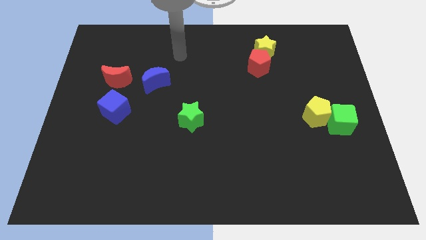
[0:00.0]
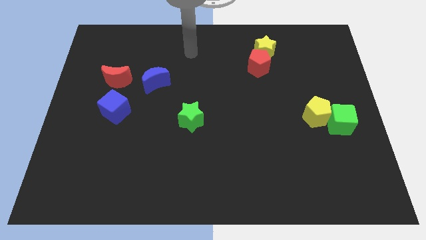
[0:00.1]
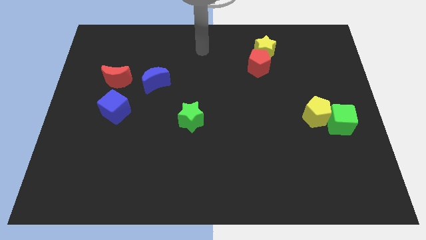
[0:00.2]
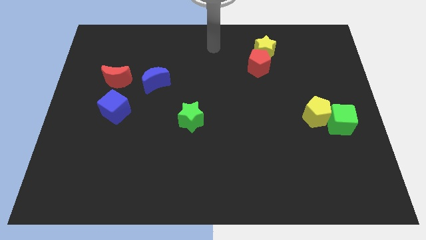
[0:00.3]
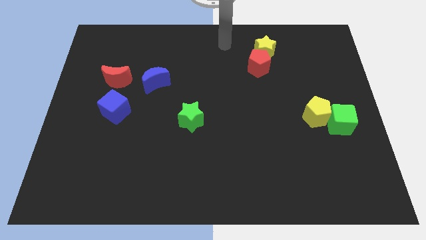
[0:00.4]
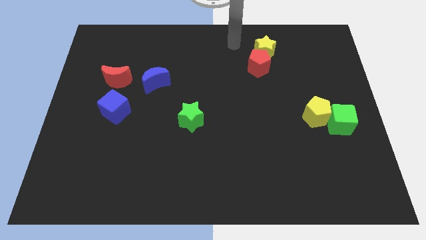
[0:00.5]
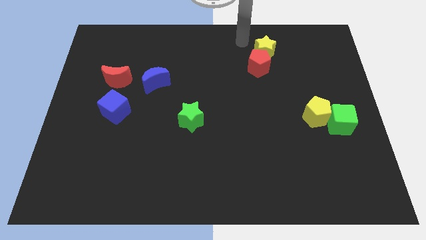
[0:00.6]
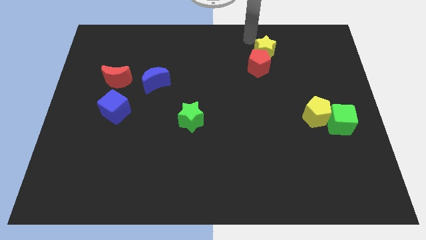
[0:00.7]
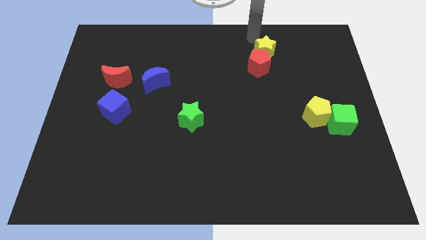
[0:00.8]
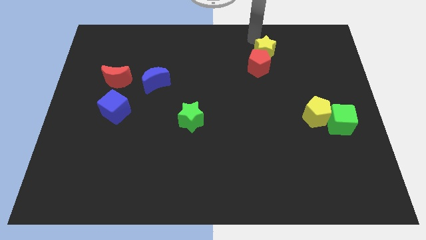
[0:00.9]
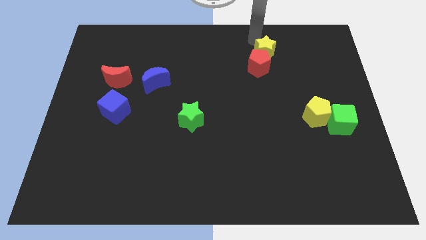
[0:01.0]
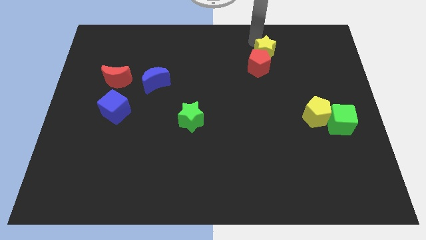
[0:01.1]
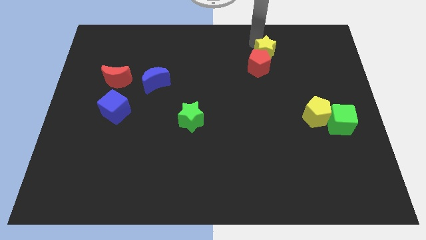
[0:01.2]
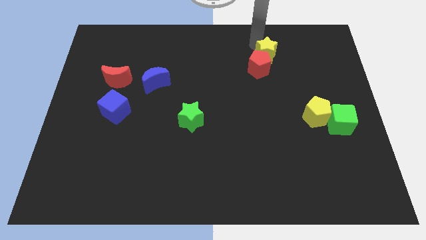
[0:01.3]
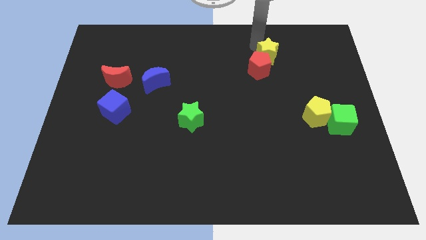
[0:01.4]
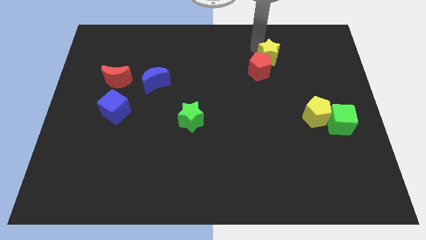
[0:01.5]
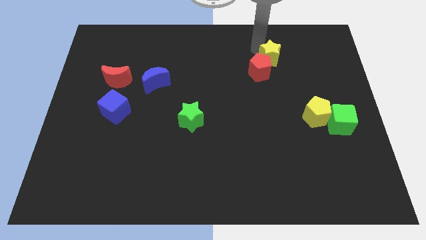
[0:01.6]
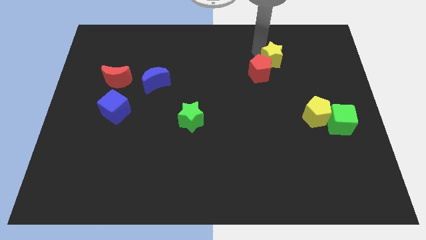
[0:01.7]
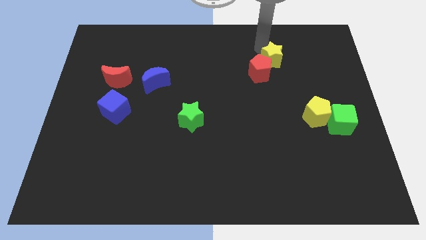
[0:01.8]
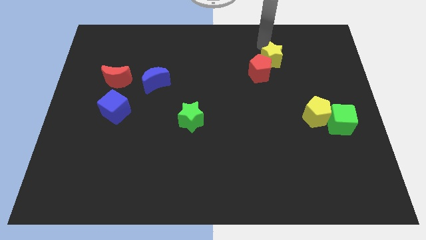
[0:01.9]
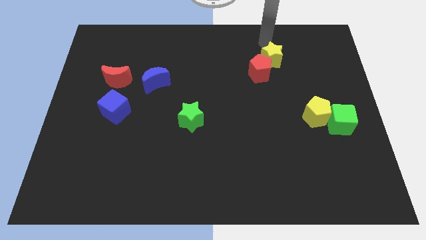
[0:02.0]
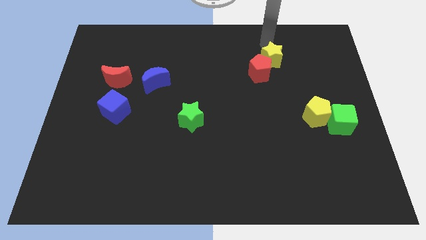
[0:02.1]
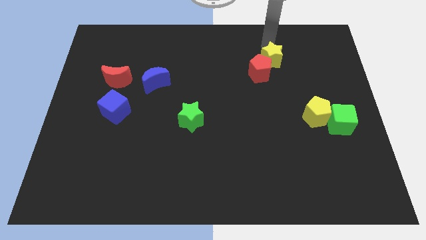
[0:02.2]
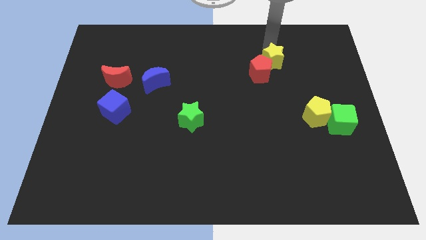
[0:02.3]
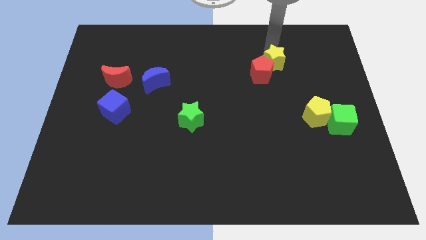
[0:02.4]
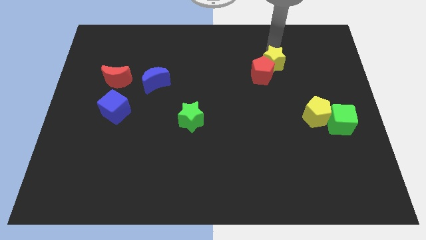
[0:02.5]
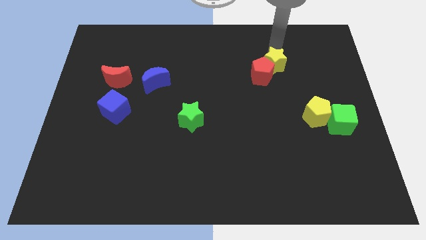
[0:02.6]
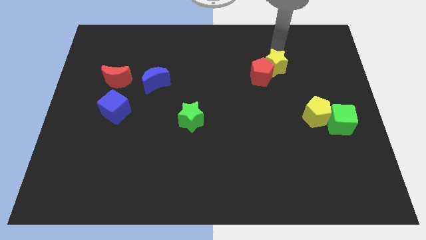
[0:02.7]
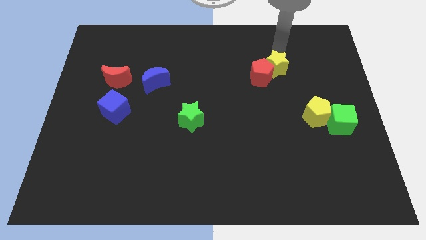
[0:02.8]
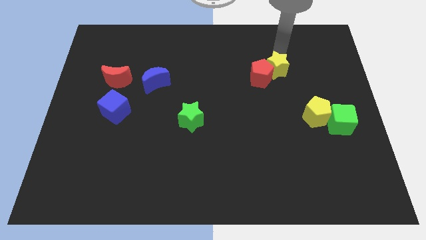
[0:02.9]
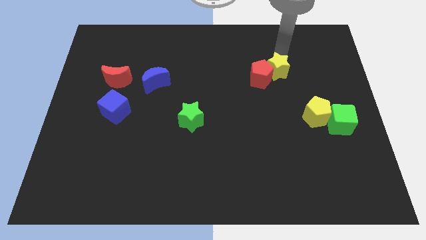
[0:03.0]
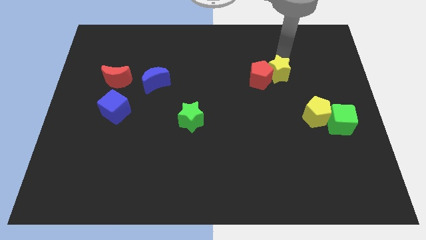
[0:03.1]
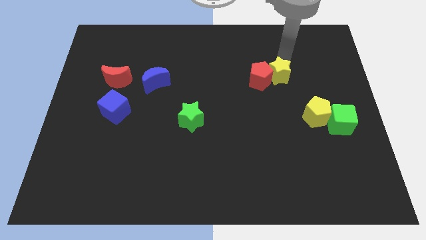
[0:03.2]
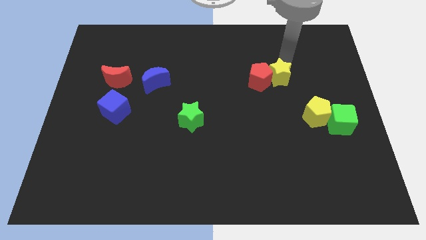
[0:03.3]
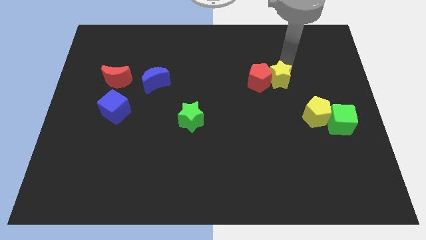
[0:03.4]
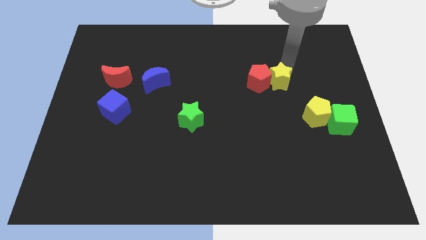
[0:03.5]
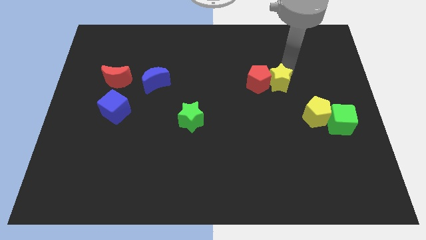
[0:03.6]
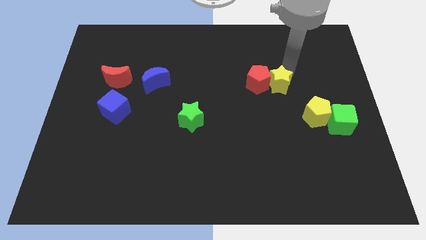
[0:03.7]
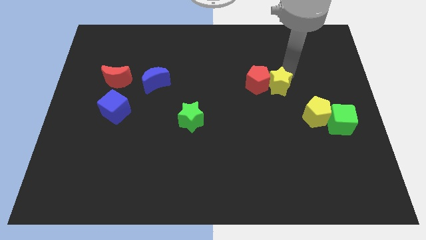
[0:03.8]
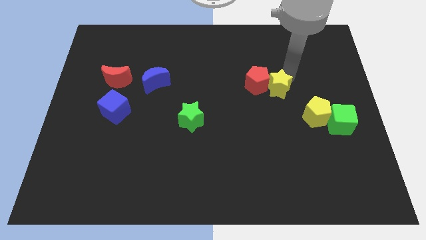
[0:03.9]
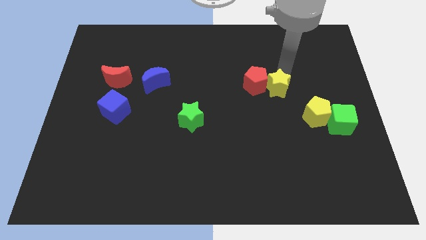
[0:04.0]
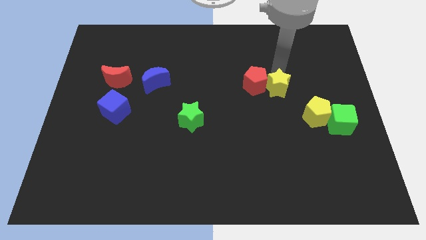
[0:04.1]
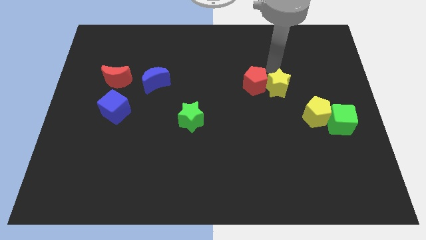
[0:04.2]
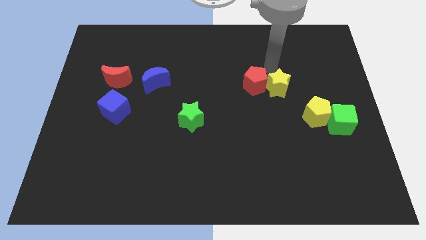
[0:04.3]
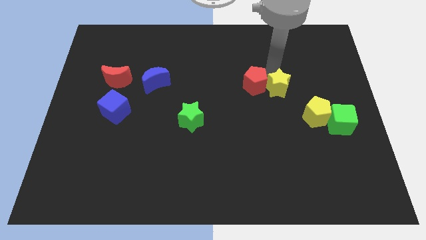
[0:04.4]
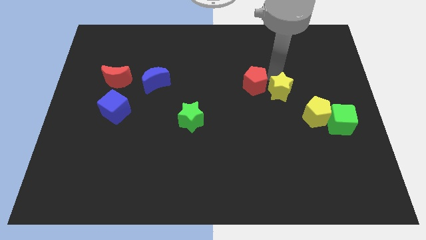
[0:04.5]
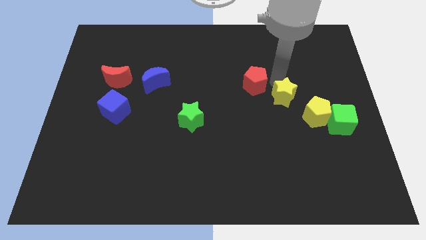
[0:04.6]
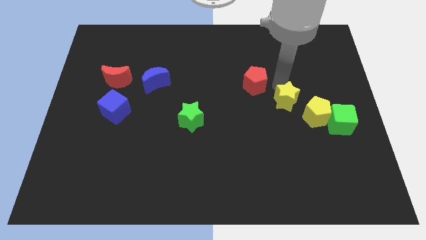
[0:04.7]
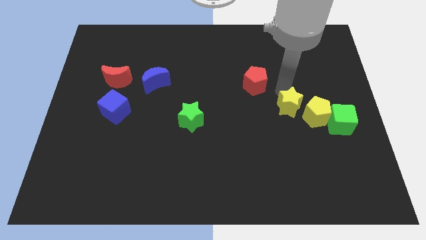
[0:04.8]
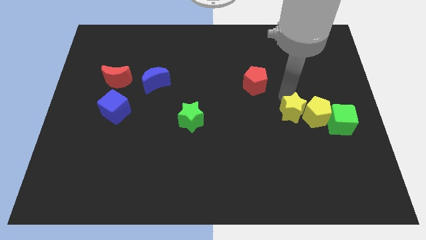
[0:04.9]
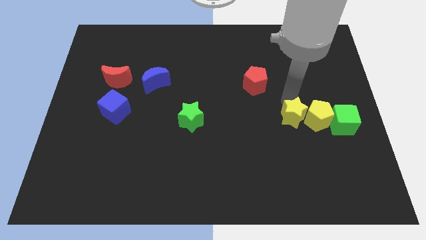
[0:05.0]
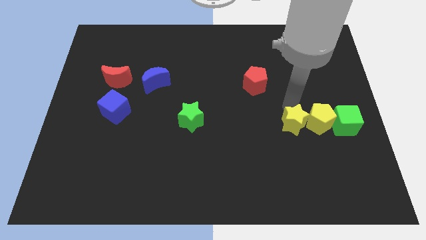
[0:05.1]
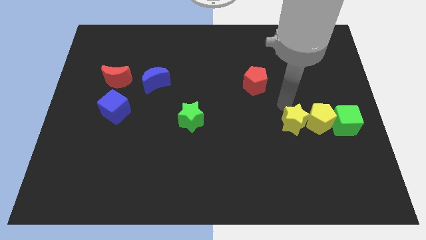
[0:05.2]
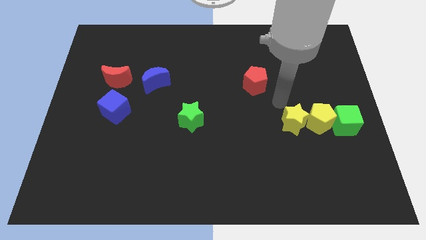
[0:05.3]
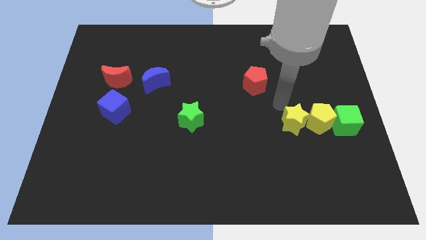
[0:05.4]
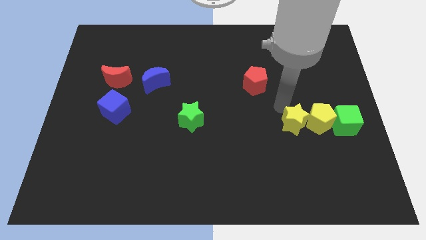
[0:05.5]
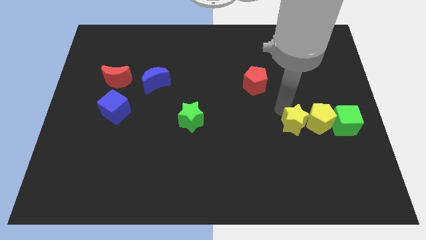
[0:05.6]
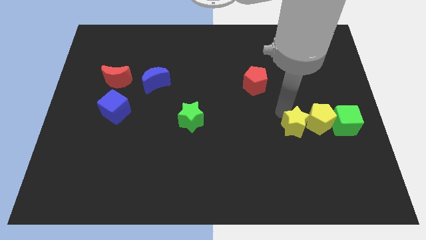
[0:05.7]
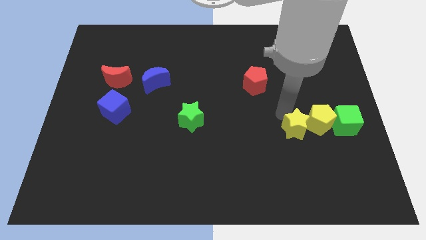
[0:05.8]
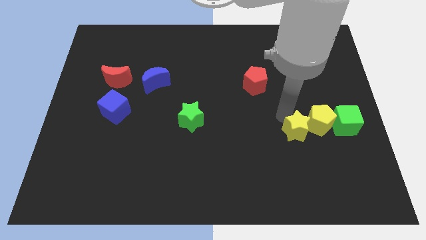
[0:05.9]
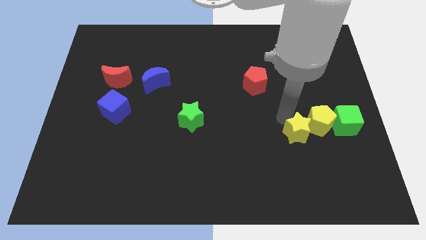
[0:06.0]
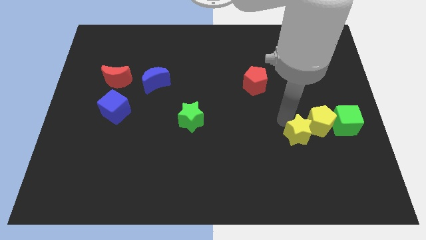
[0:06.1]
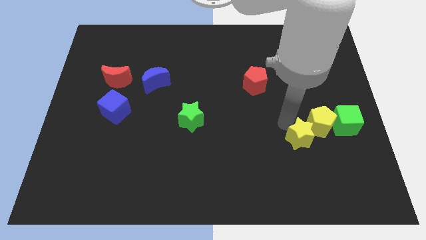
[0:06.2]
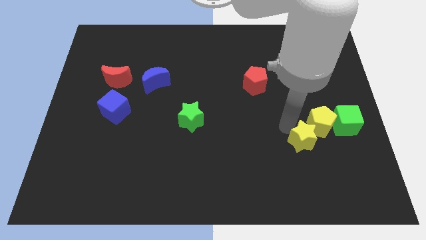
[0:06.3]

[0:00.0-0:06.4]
put the yellow star to the bottom side of the yellow pentagon

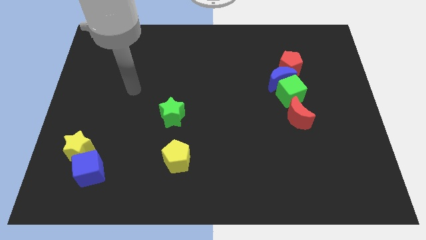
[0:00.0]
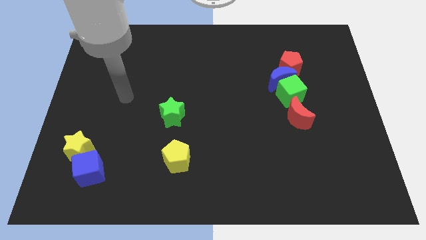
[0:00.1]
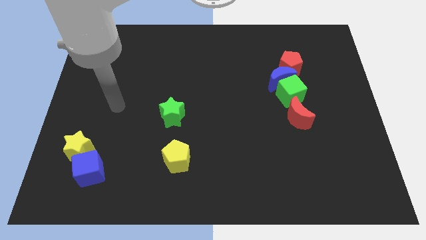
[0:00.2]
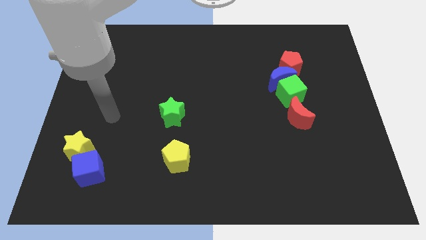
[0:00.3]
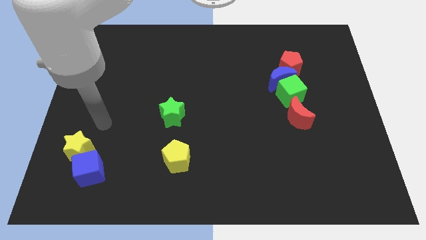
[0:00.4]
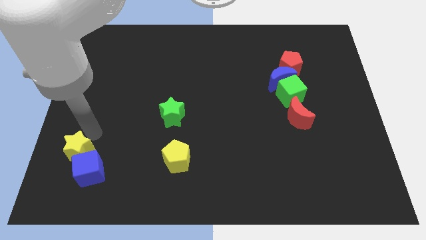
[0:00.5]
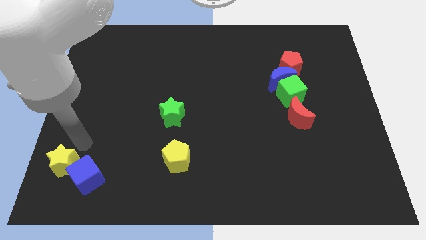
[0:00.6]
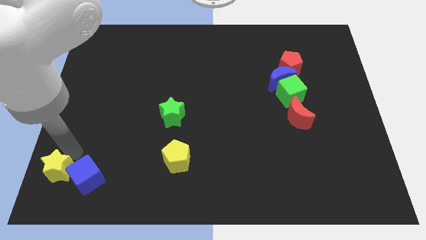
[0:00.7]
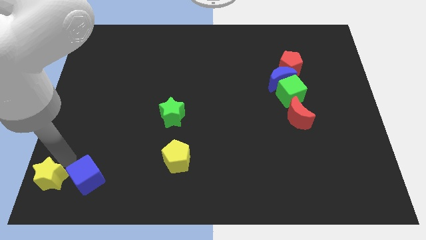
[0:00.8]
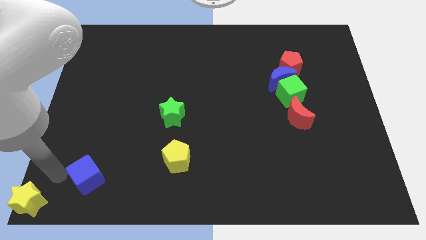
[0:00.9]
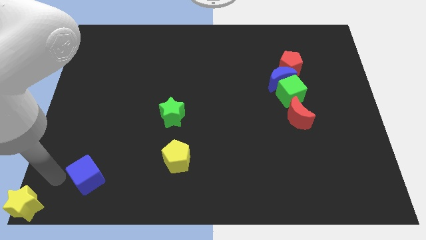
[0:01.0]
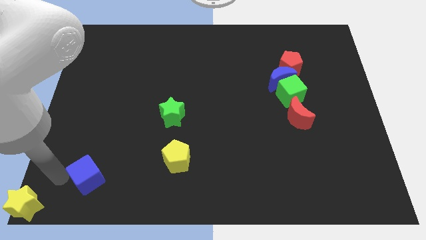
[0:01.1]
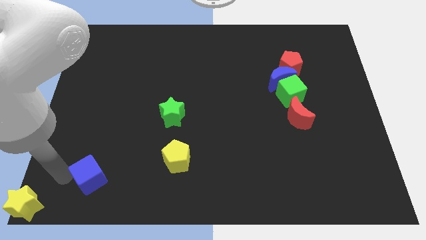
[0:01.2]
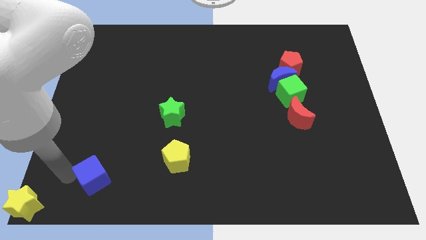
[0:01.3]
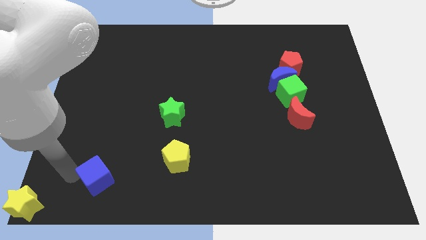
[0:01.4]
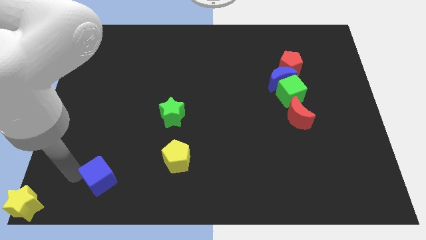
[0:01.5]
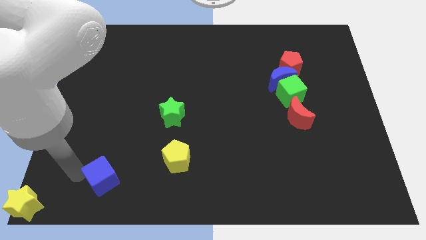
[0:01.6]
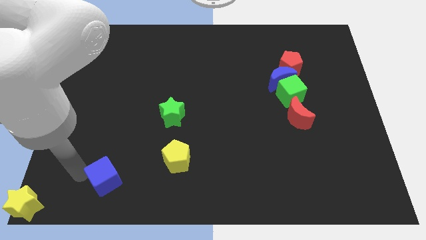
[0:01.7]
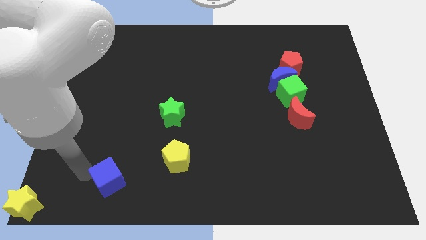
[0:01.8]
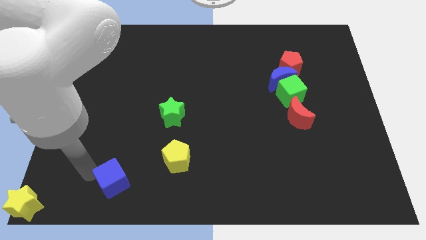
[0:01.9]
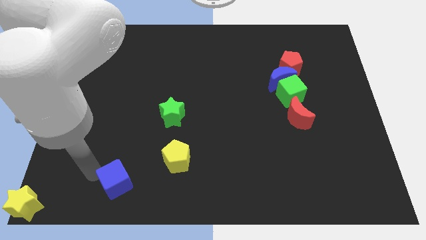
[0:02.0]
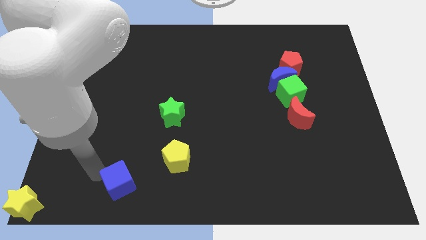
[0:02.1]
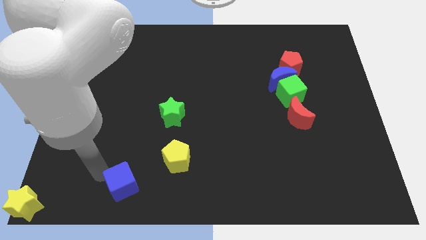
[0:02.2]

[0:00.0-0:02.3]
move the blue cube diagonally down and to the left of the yellow pentagon
